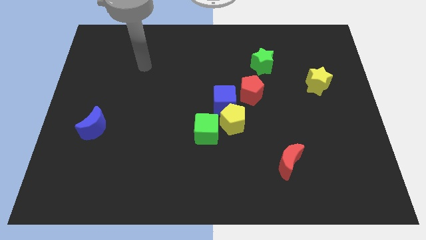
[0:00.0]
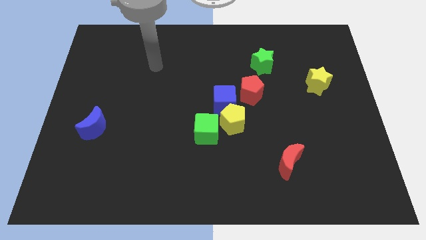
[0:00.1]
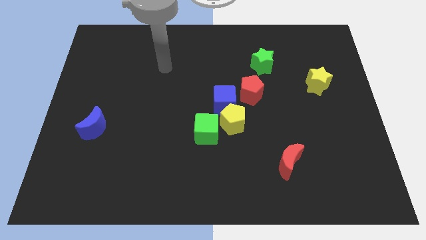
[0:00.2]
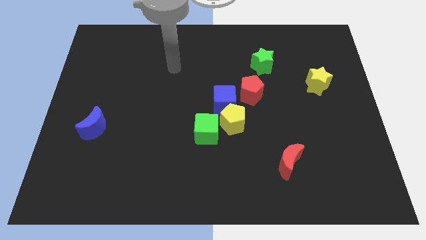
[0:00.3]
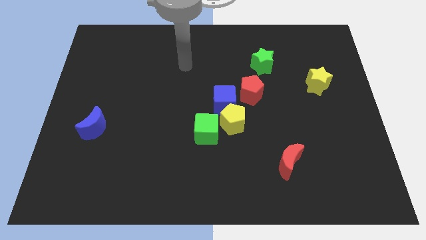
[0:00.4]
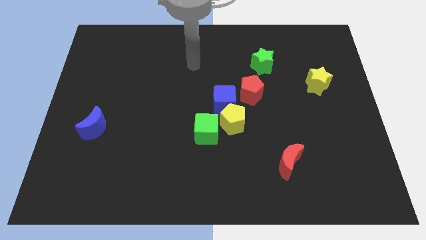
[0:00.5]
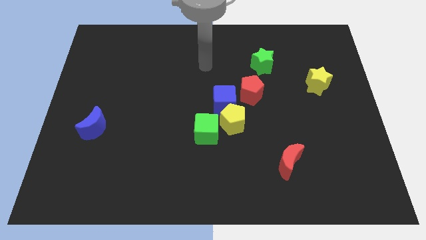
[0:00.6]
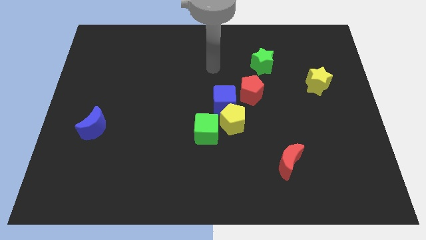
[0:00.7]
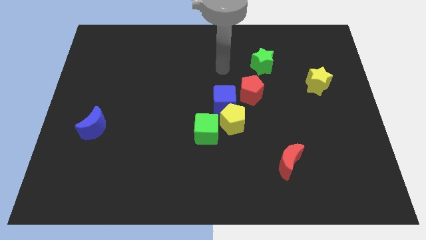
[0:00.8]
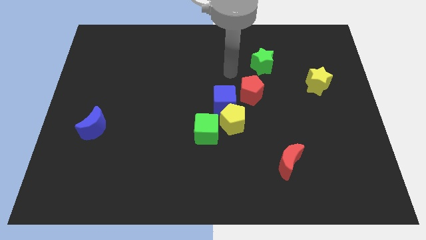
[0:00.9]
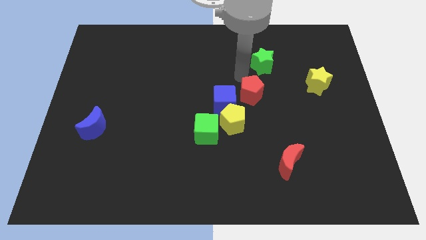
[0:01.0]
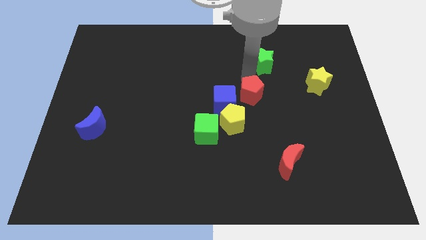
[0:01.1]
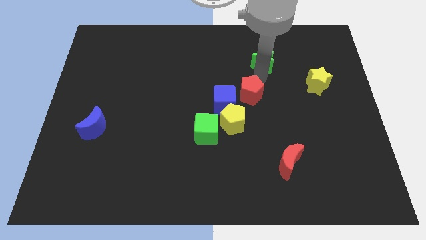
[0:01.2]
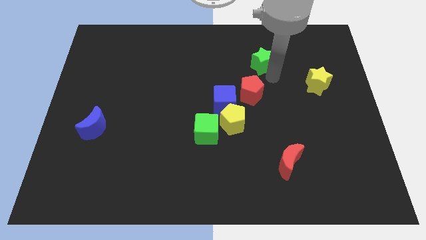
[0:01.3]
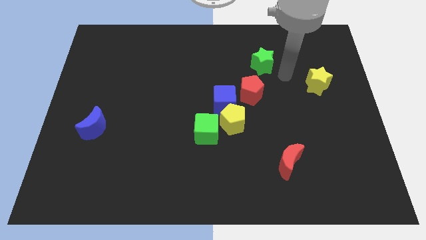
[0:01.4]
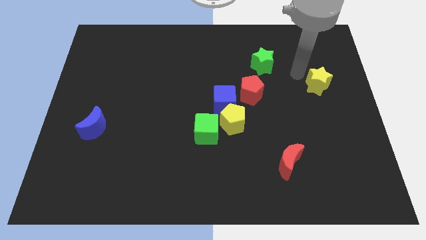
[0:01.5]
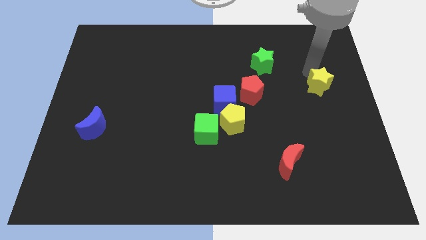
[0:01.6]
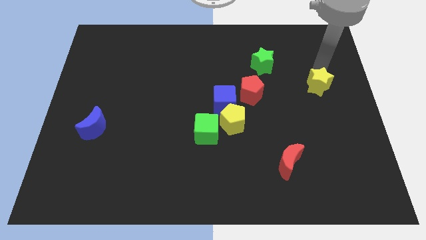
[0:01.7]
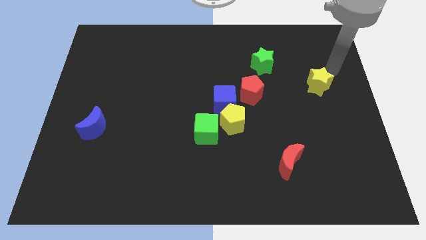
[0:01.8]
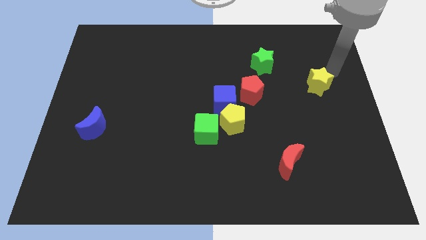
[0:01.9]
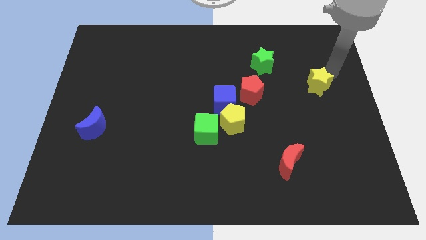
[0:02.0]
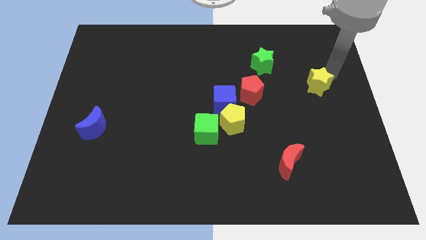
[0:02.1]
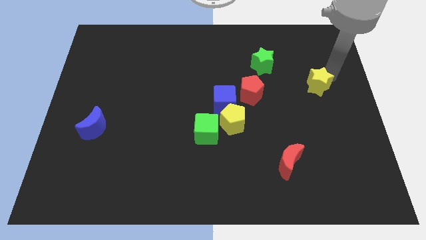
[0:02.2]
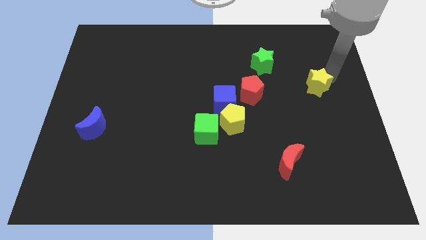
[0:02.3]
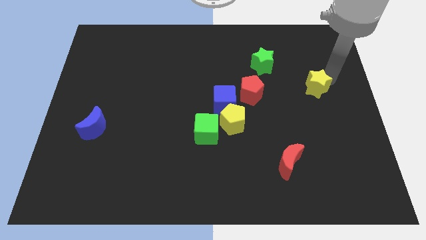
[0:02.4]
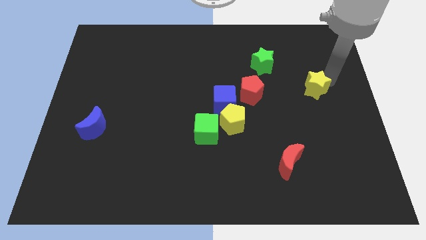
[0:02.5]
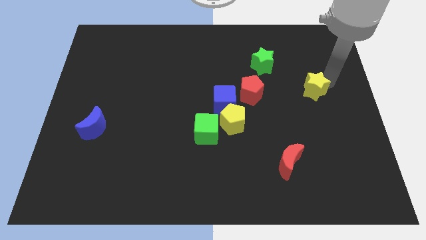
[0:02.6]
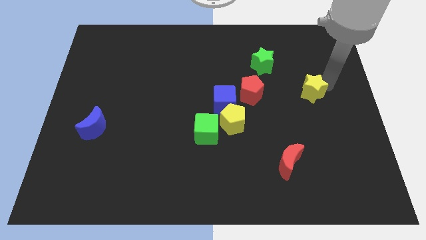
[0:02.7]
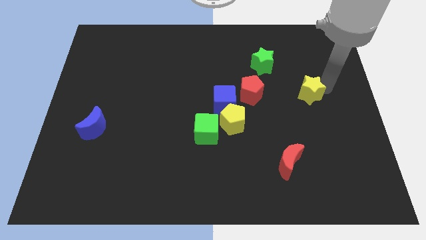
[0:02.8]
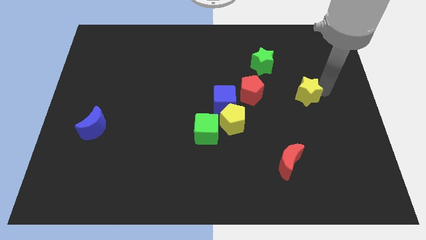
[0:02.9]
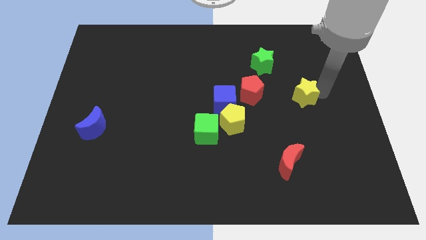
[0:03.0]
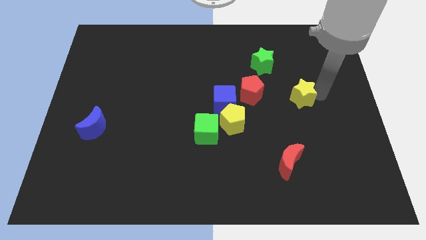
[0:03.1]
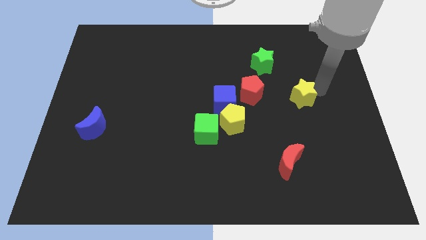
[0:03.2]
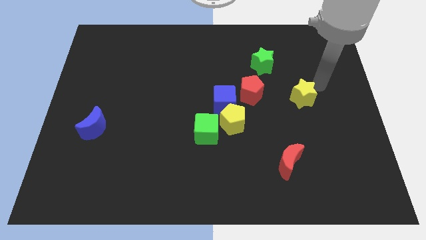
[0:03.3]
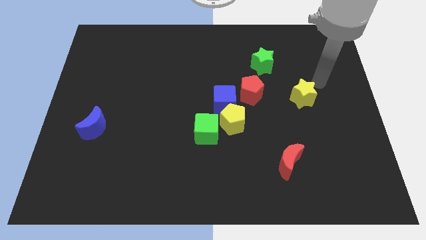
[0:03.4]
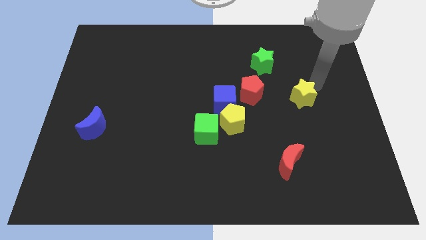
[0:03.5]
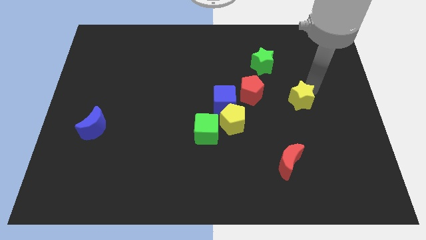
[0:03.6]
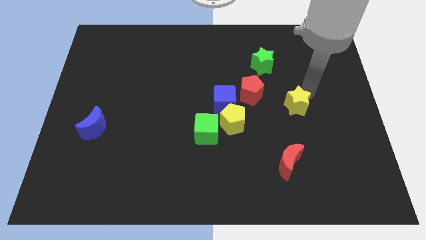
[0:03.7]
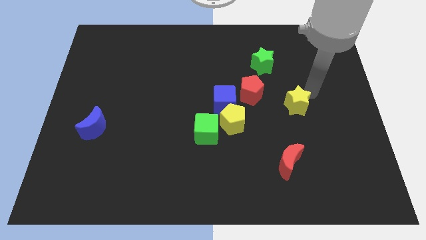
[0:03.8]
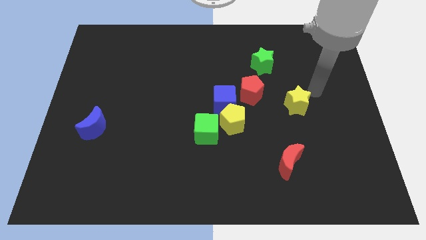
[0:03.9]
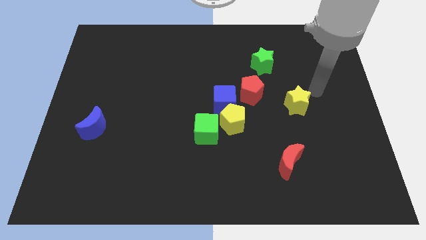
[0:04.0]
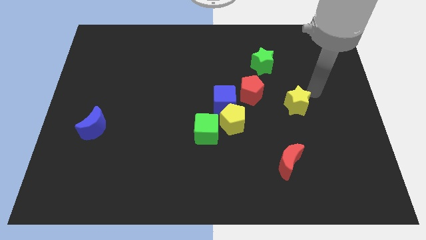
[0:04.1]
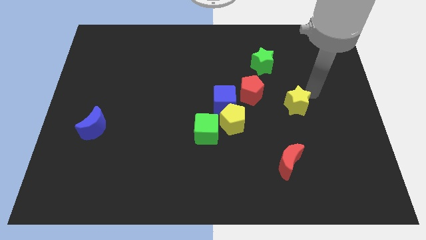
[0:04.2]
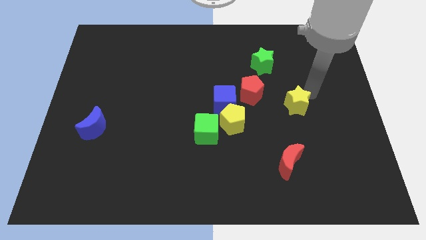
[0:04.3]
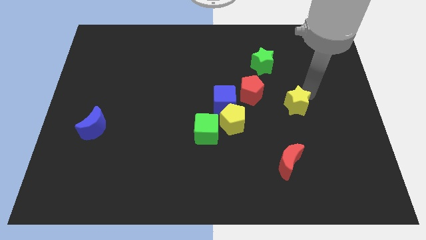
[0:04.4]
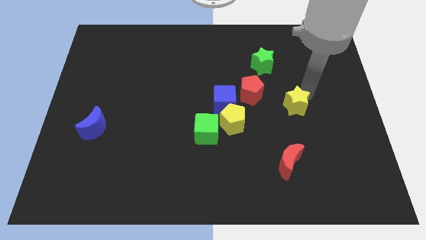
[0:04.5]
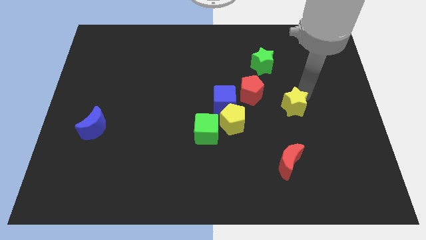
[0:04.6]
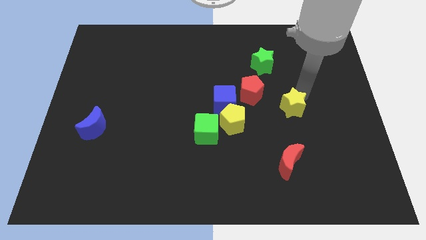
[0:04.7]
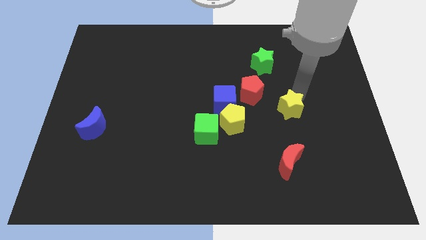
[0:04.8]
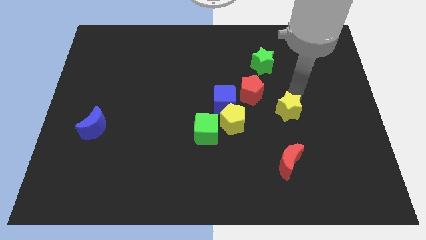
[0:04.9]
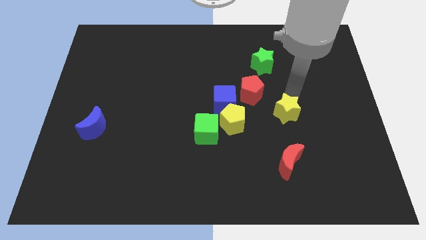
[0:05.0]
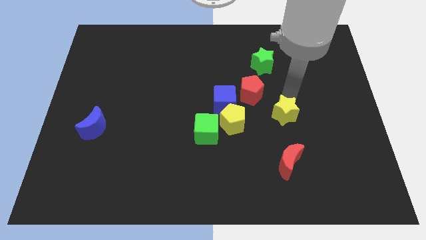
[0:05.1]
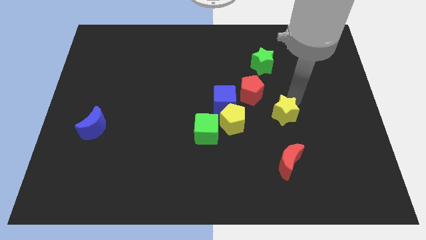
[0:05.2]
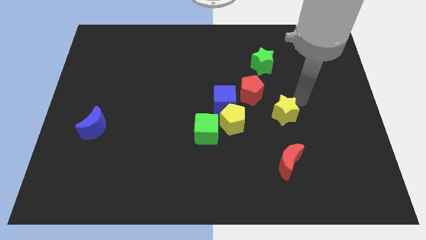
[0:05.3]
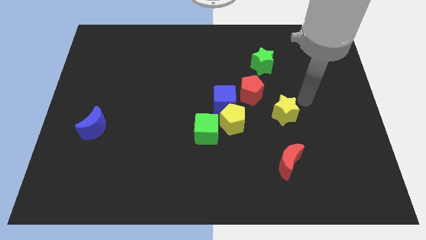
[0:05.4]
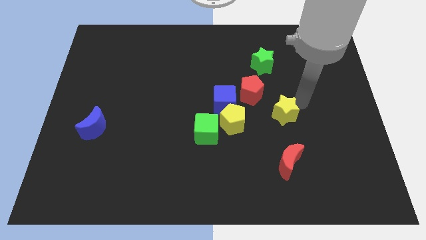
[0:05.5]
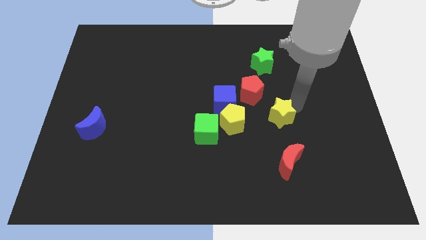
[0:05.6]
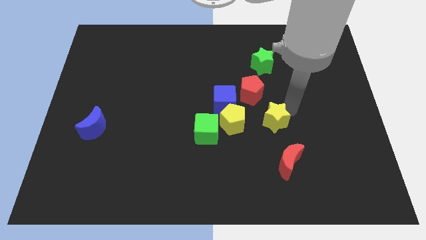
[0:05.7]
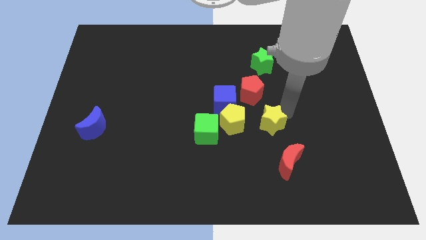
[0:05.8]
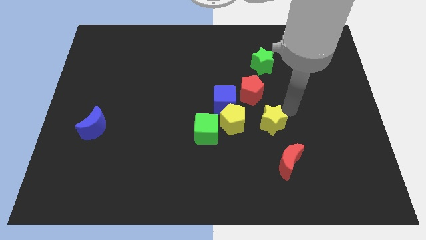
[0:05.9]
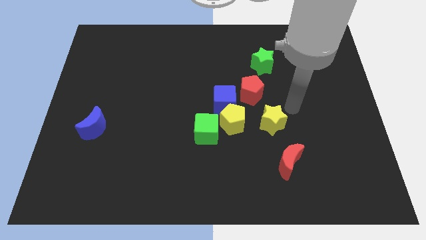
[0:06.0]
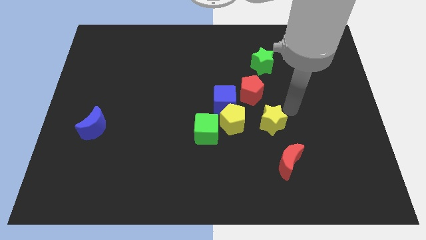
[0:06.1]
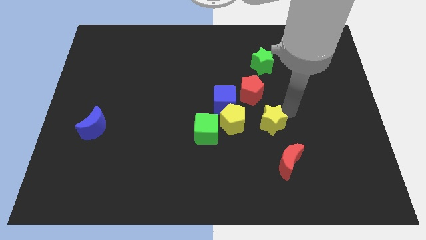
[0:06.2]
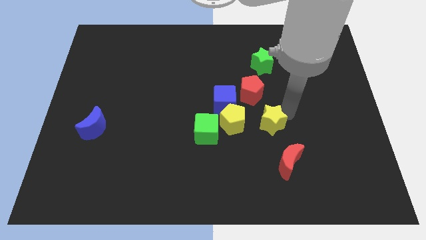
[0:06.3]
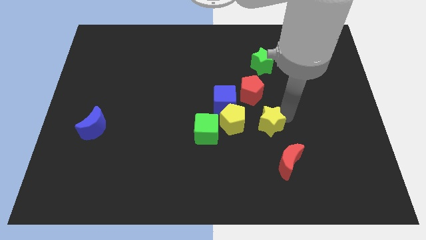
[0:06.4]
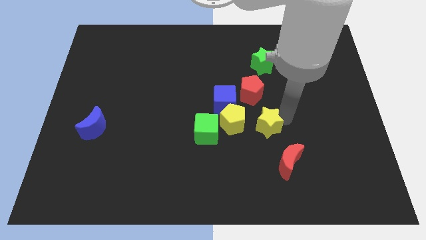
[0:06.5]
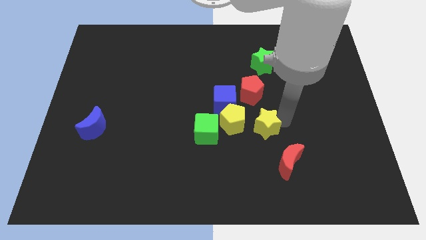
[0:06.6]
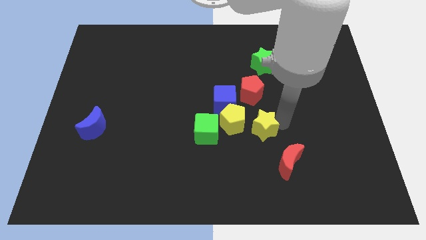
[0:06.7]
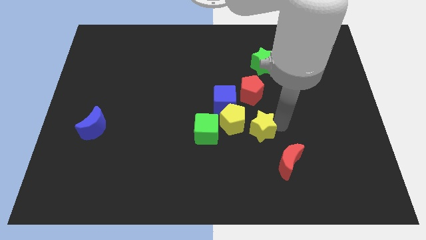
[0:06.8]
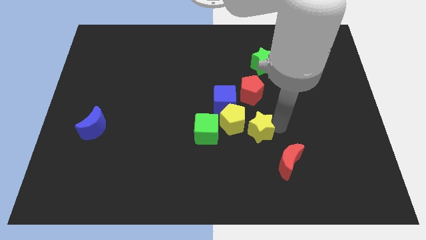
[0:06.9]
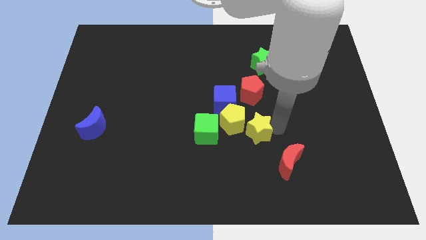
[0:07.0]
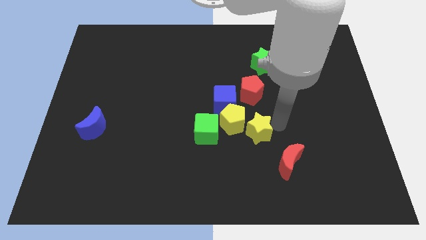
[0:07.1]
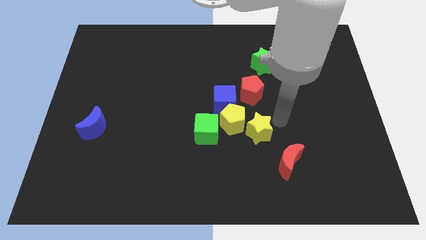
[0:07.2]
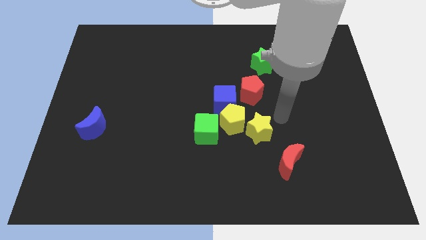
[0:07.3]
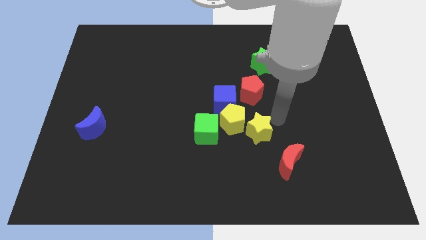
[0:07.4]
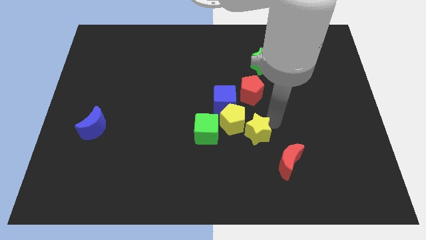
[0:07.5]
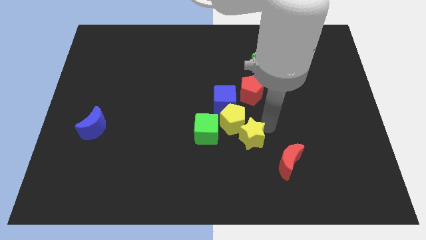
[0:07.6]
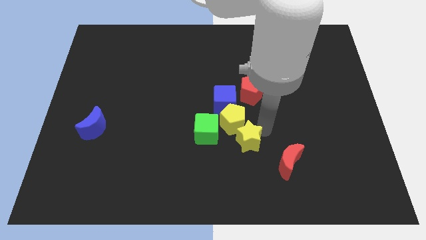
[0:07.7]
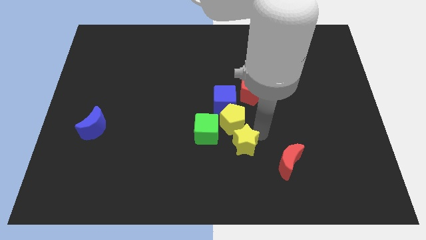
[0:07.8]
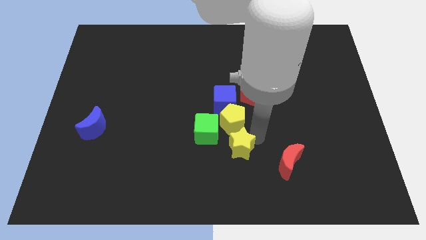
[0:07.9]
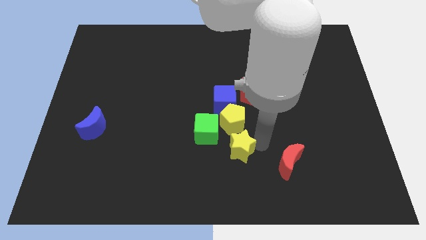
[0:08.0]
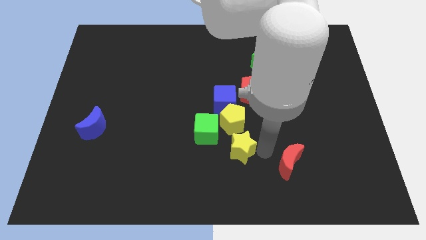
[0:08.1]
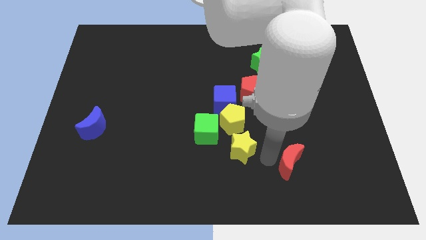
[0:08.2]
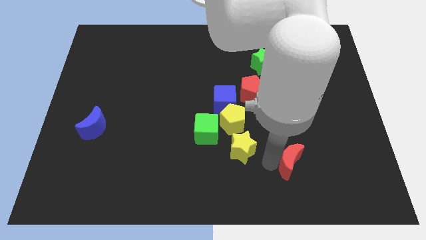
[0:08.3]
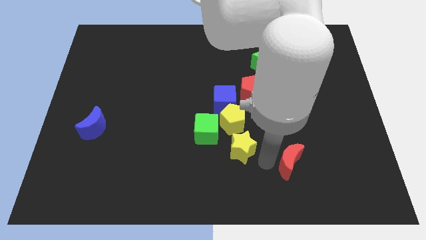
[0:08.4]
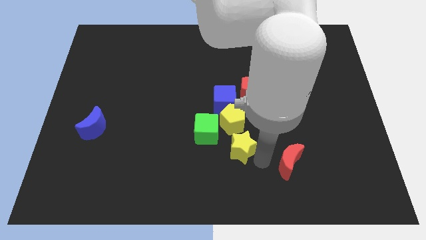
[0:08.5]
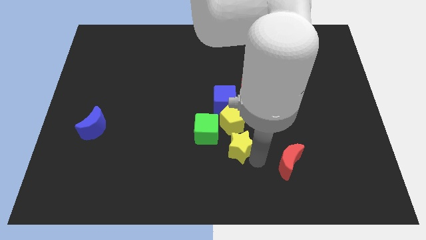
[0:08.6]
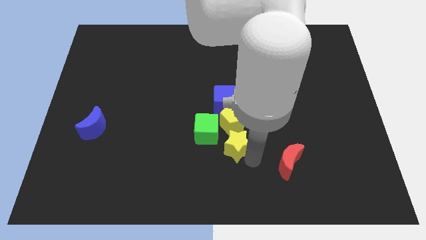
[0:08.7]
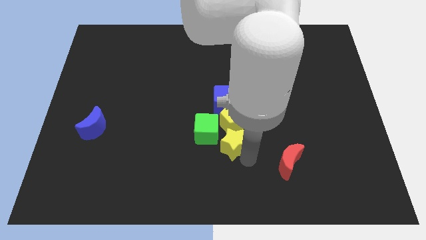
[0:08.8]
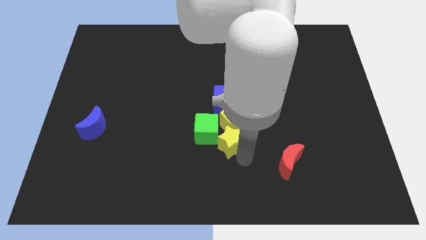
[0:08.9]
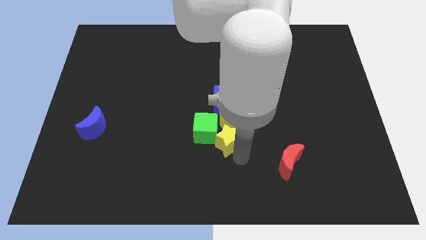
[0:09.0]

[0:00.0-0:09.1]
slide the yellow star towards the green cube
